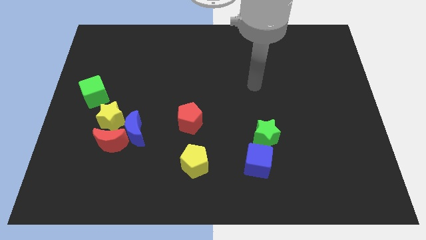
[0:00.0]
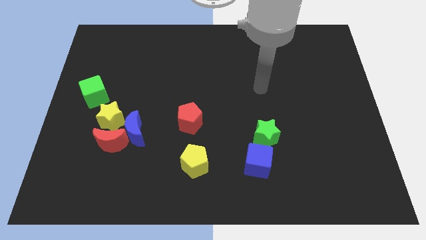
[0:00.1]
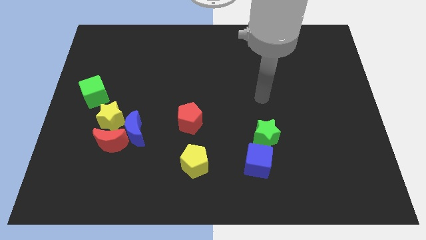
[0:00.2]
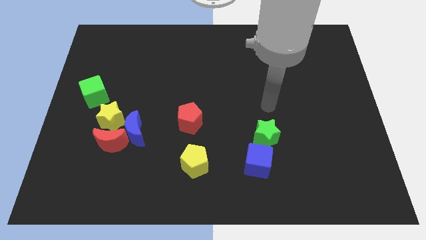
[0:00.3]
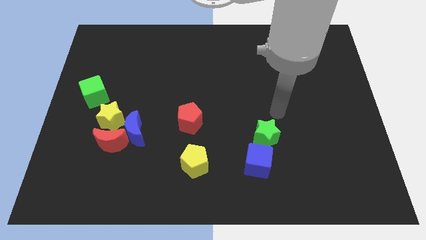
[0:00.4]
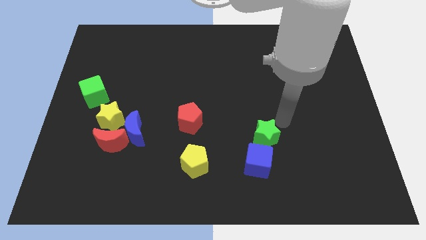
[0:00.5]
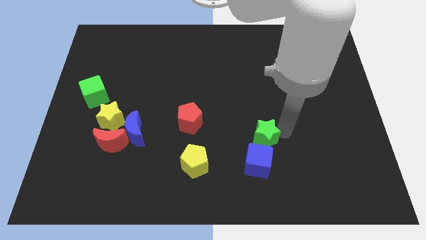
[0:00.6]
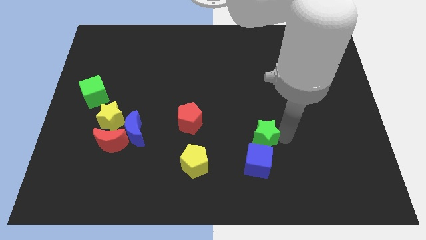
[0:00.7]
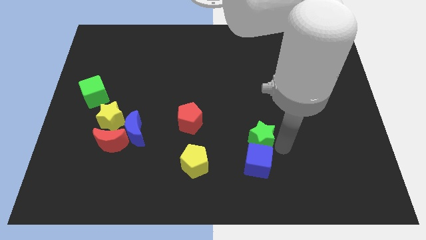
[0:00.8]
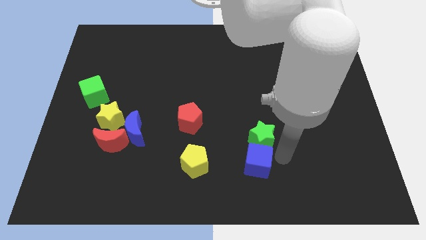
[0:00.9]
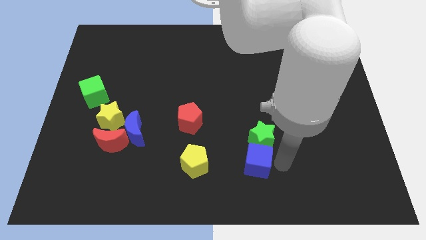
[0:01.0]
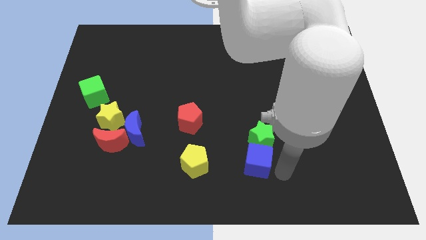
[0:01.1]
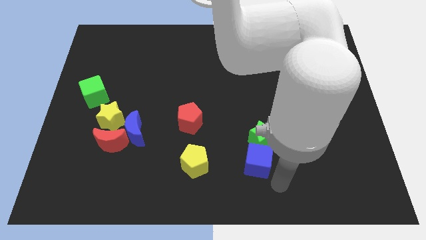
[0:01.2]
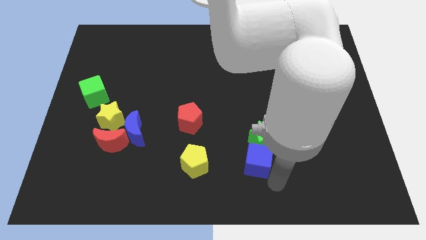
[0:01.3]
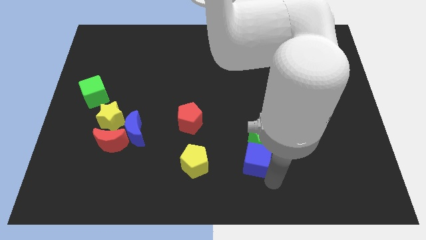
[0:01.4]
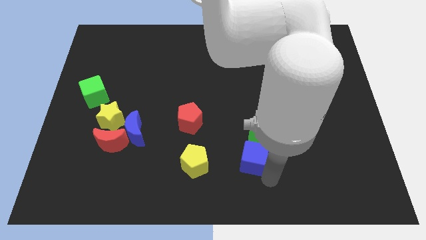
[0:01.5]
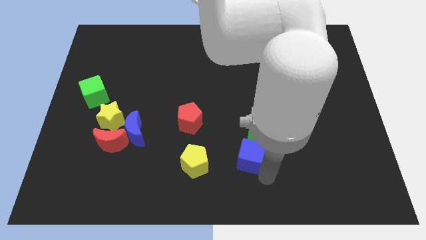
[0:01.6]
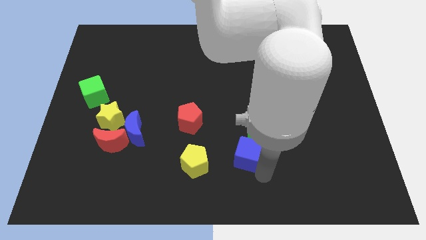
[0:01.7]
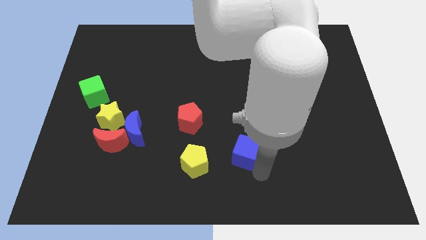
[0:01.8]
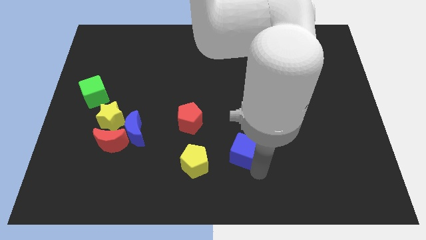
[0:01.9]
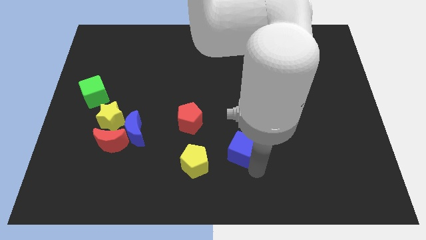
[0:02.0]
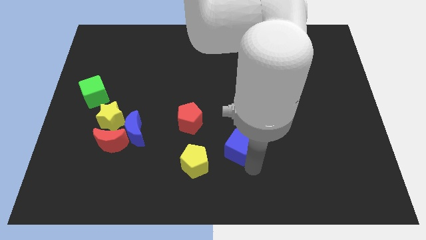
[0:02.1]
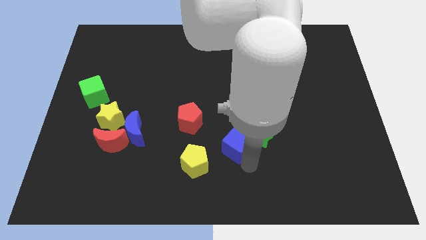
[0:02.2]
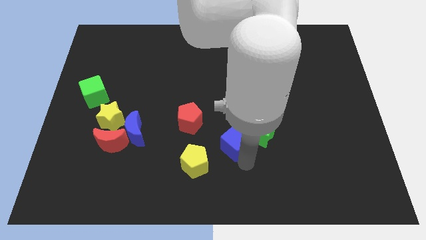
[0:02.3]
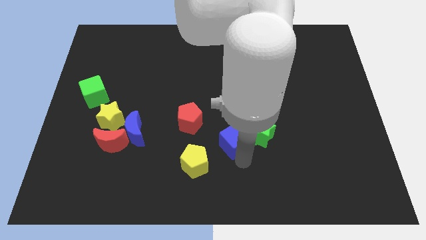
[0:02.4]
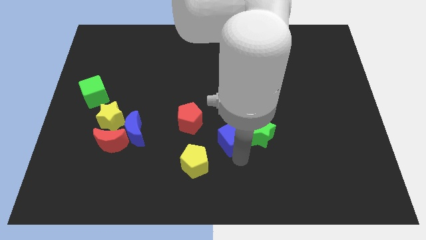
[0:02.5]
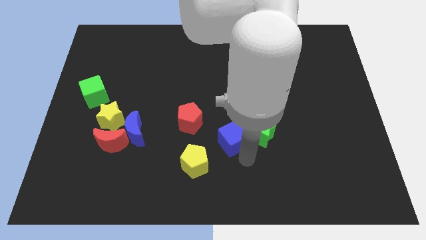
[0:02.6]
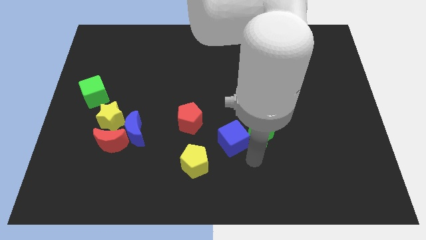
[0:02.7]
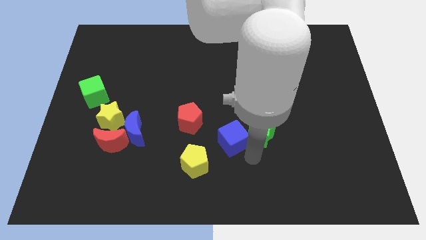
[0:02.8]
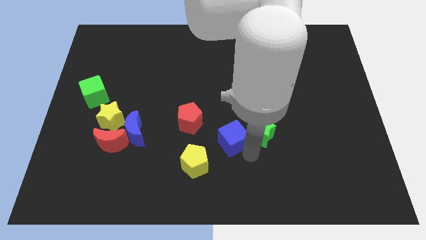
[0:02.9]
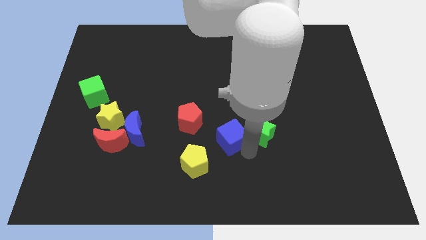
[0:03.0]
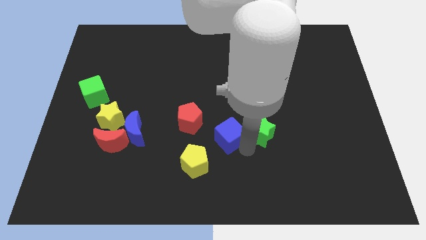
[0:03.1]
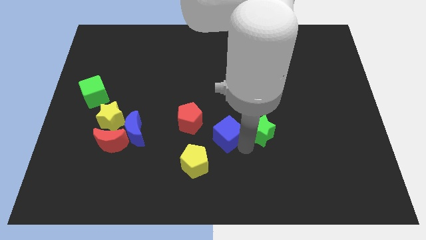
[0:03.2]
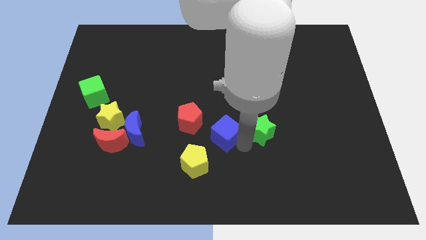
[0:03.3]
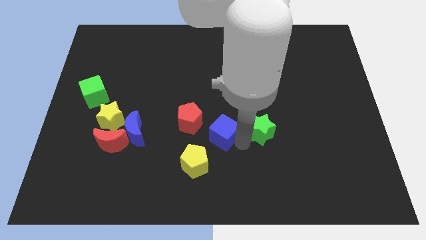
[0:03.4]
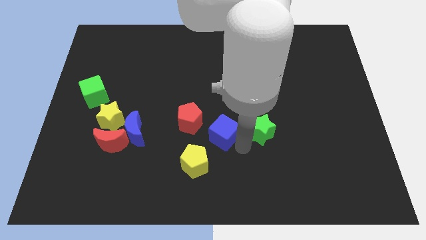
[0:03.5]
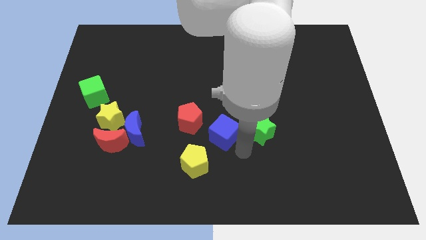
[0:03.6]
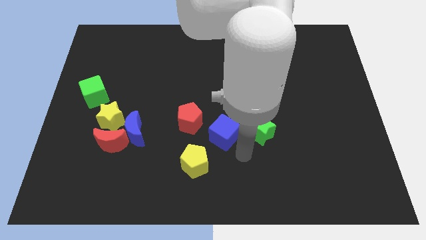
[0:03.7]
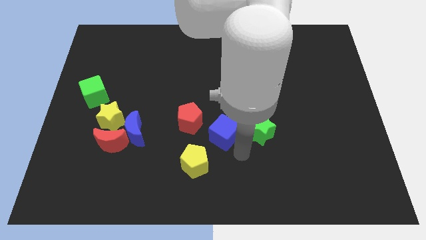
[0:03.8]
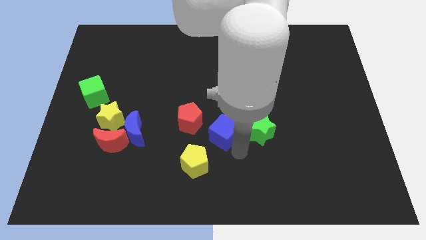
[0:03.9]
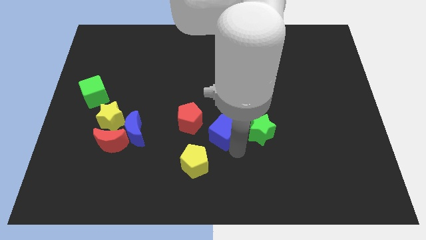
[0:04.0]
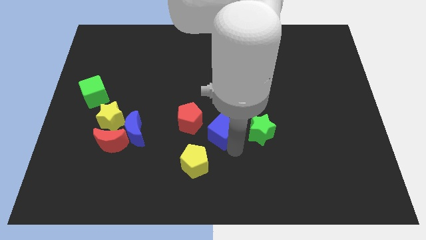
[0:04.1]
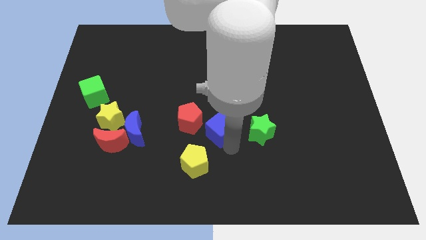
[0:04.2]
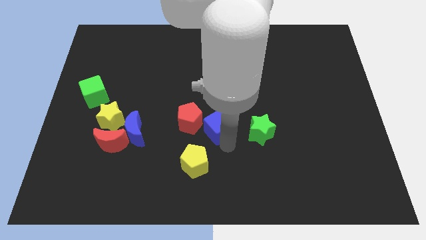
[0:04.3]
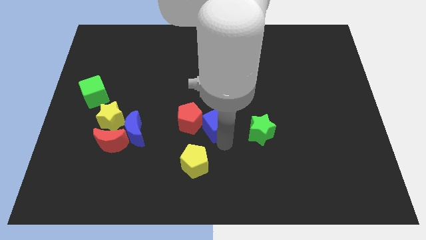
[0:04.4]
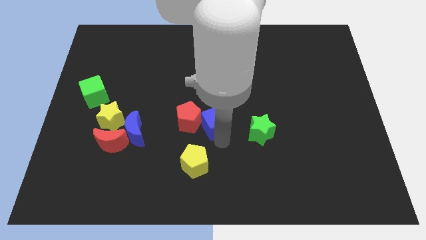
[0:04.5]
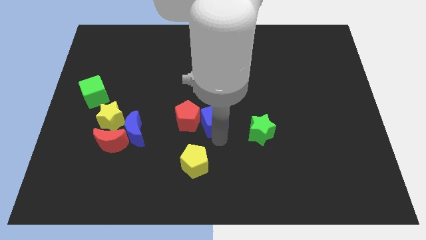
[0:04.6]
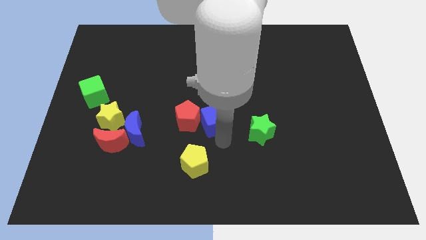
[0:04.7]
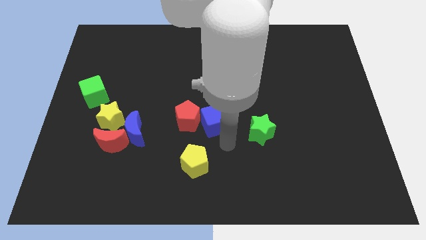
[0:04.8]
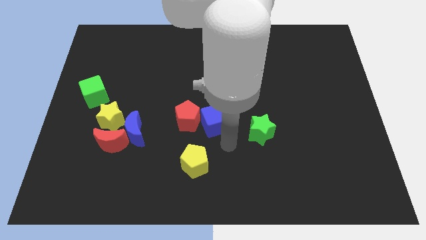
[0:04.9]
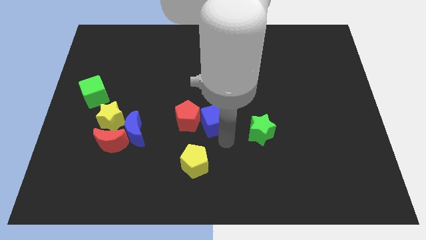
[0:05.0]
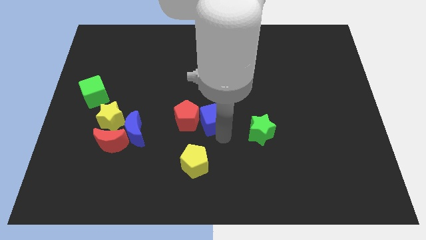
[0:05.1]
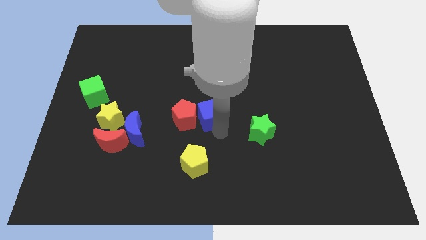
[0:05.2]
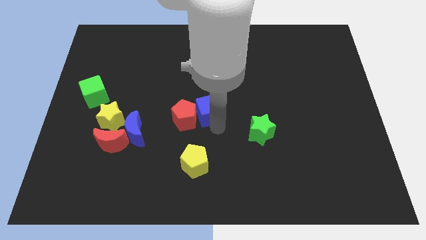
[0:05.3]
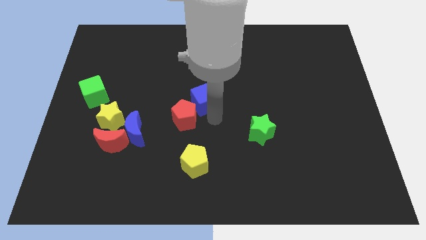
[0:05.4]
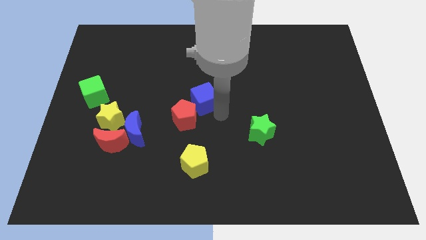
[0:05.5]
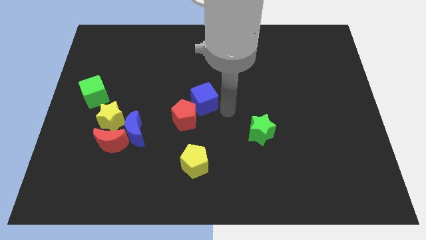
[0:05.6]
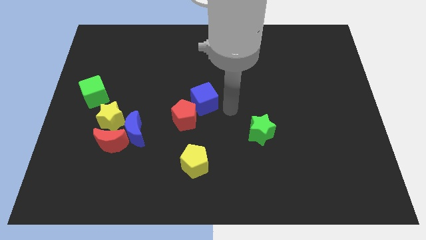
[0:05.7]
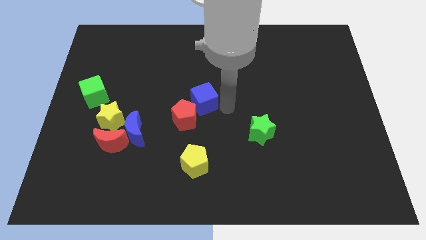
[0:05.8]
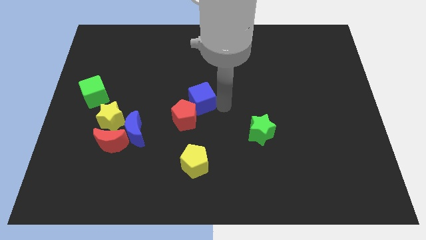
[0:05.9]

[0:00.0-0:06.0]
move the blue cube up and left

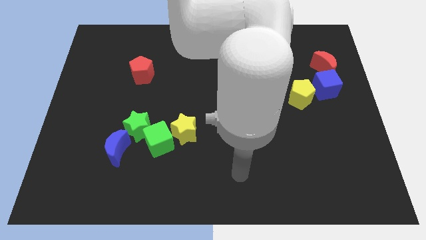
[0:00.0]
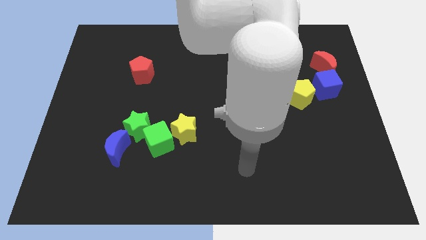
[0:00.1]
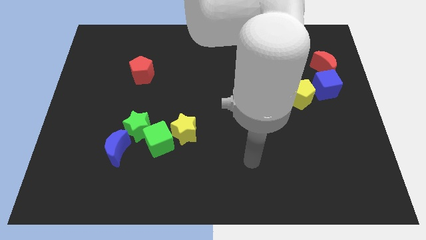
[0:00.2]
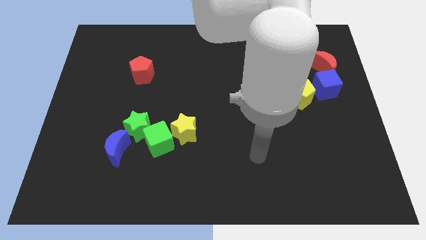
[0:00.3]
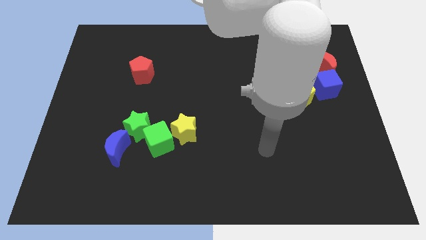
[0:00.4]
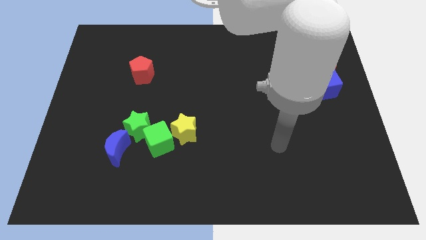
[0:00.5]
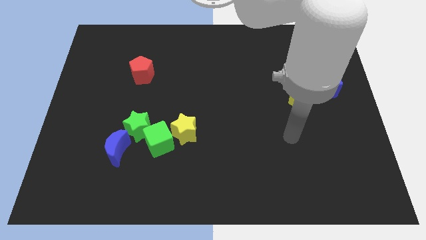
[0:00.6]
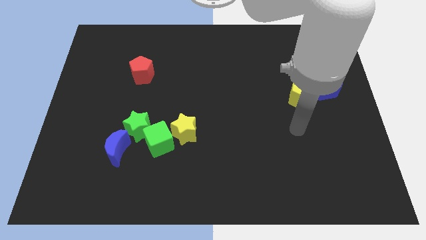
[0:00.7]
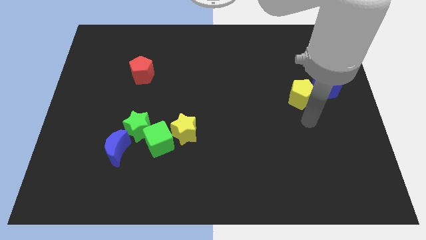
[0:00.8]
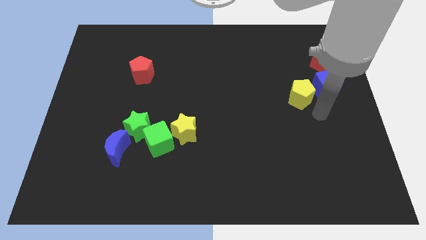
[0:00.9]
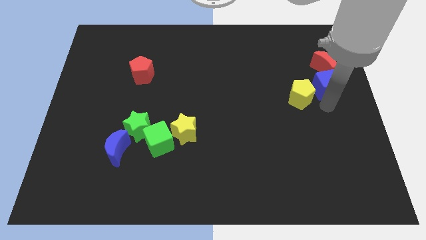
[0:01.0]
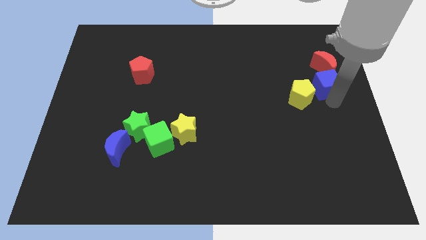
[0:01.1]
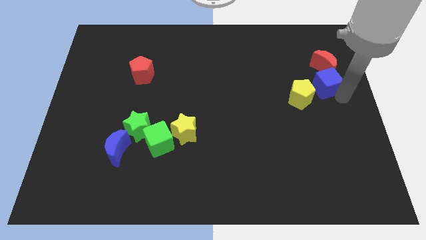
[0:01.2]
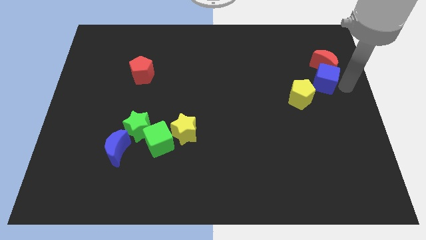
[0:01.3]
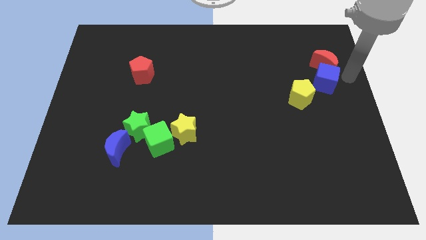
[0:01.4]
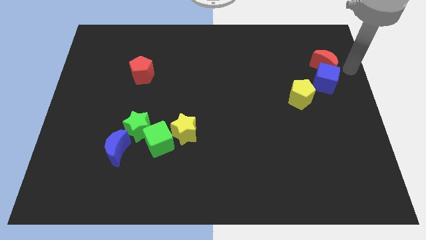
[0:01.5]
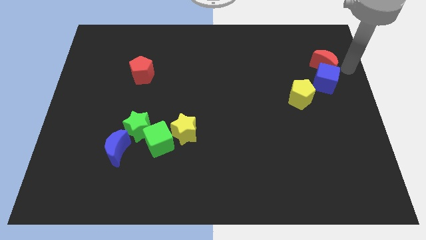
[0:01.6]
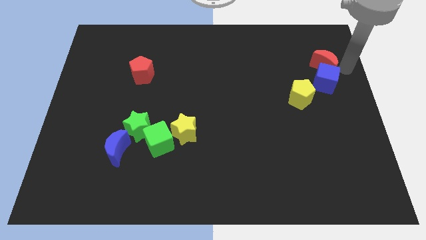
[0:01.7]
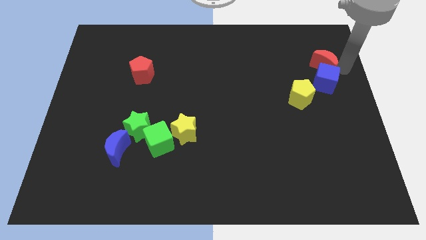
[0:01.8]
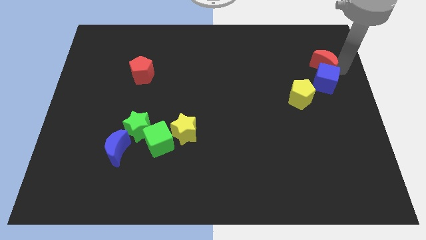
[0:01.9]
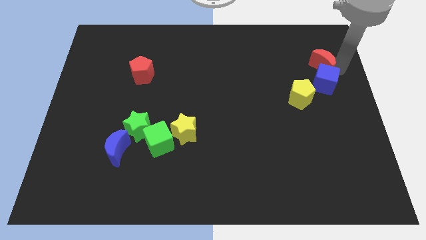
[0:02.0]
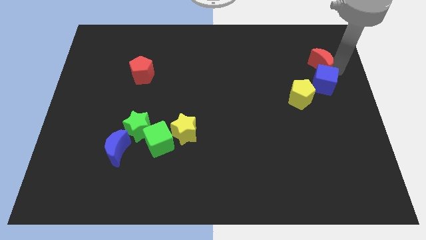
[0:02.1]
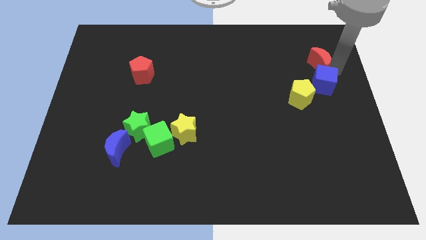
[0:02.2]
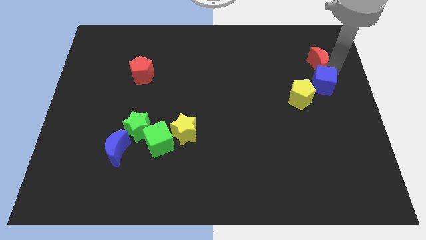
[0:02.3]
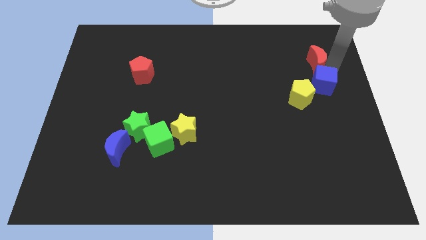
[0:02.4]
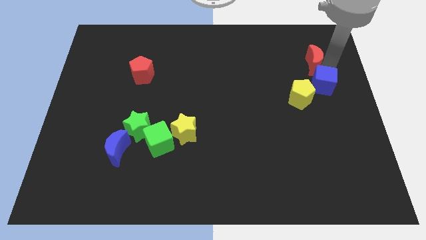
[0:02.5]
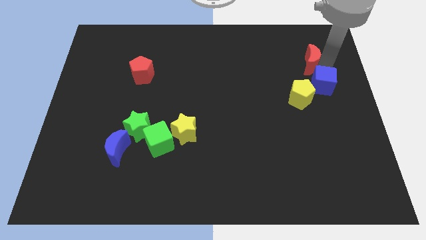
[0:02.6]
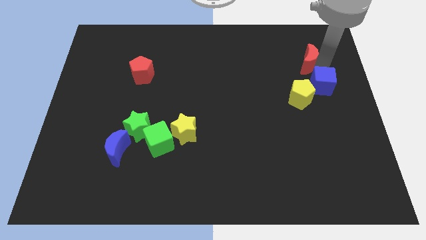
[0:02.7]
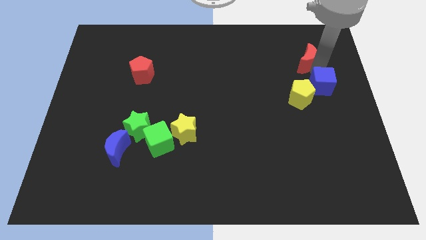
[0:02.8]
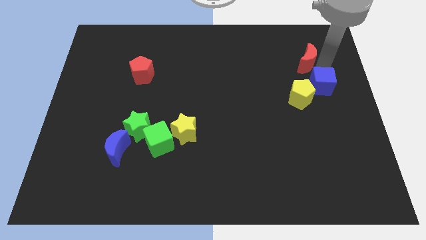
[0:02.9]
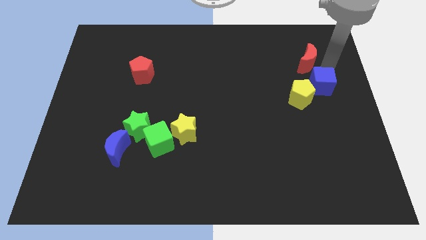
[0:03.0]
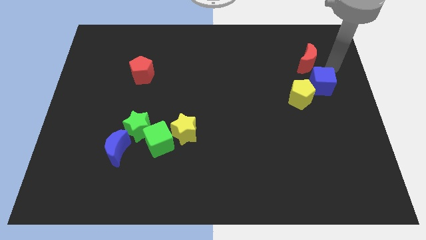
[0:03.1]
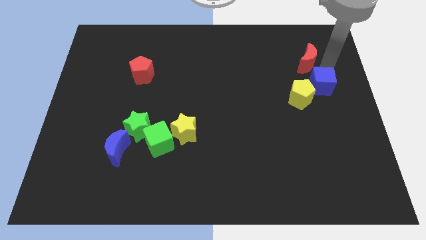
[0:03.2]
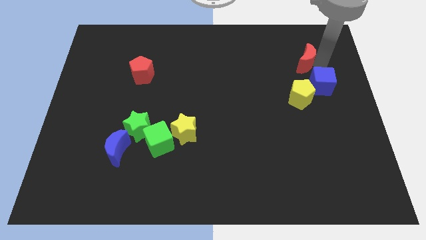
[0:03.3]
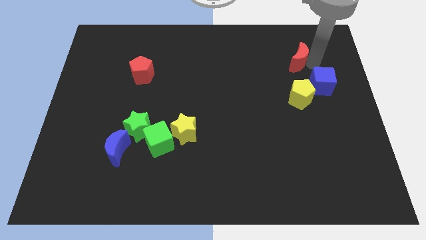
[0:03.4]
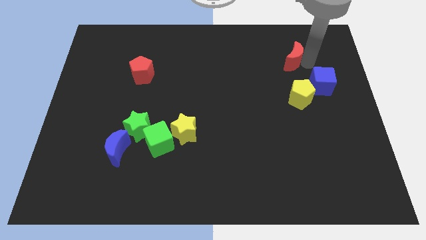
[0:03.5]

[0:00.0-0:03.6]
move the red moon a bit left
